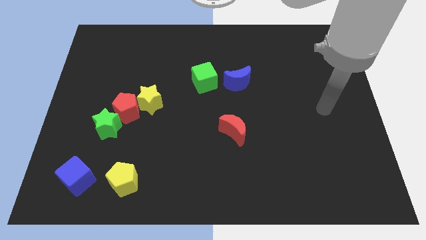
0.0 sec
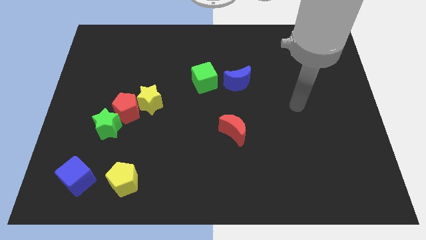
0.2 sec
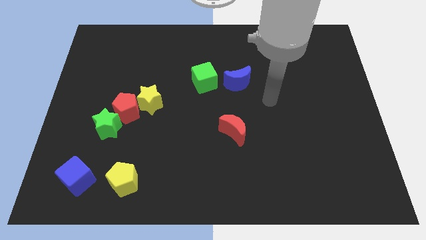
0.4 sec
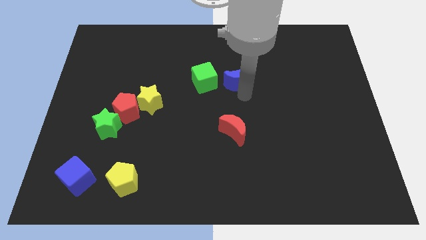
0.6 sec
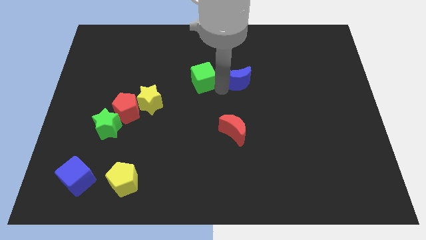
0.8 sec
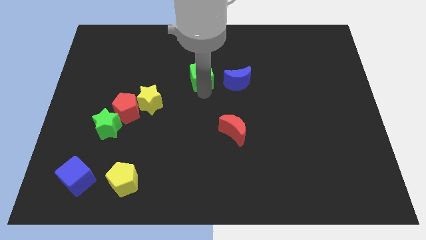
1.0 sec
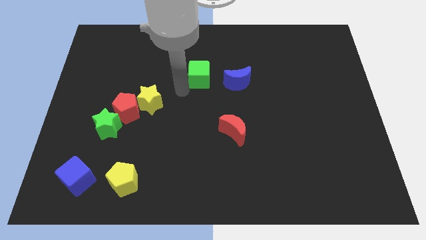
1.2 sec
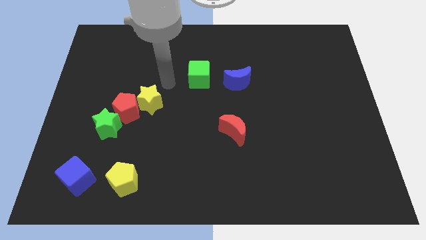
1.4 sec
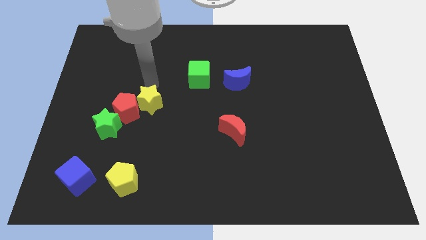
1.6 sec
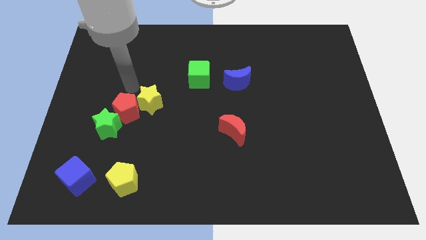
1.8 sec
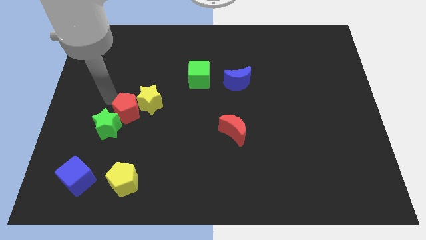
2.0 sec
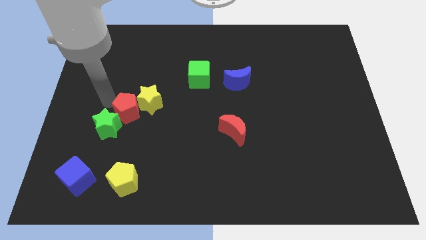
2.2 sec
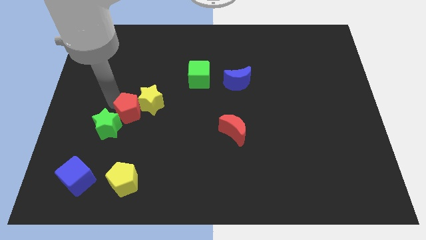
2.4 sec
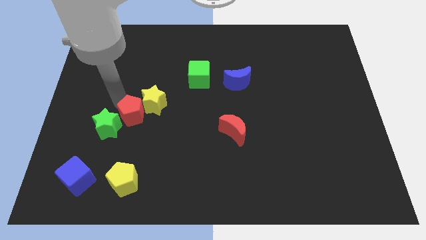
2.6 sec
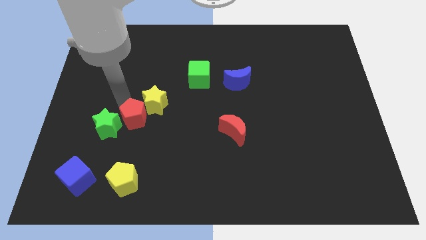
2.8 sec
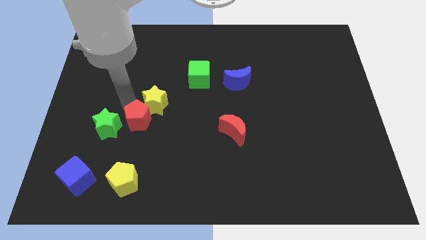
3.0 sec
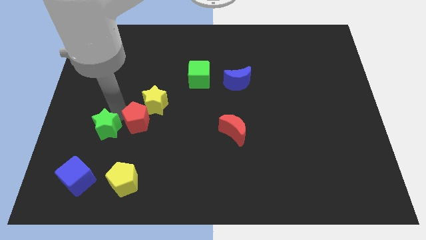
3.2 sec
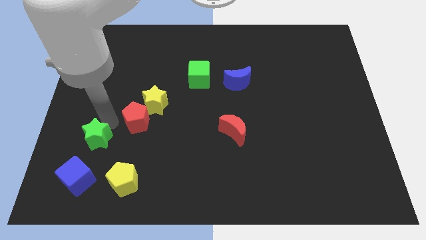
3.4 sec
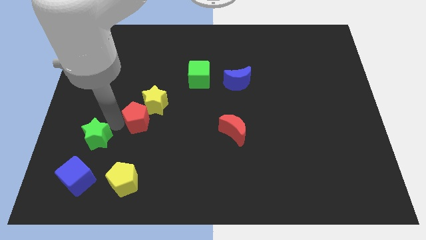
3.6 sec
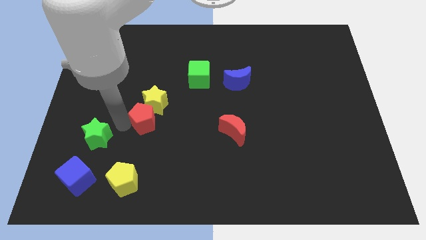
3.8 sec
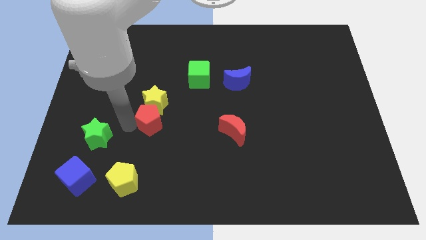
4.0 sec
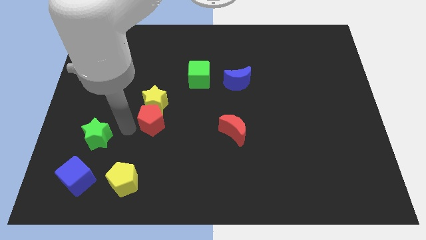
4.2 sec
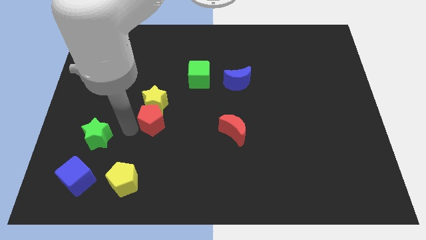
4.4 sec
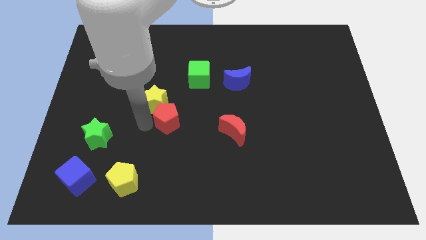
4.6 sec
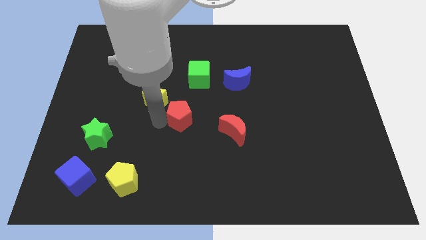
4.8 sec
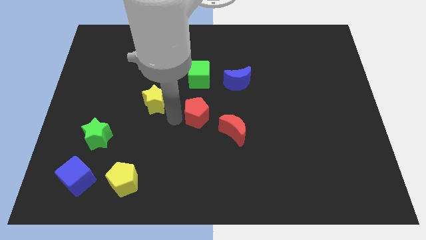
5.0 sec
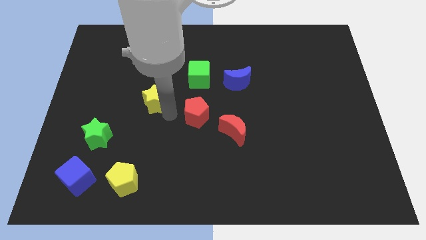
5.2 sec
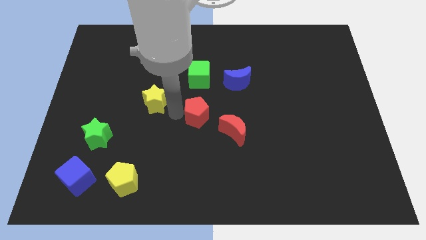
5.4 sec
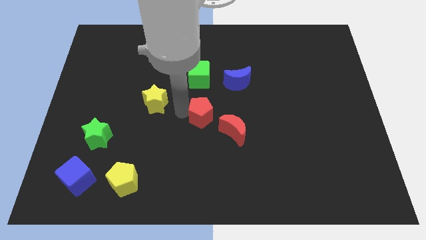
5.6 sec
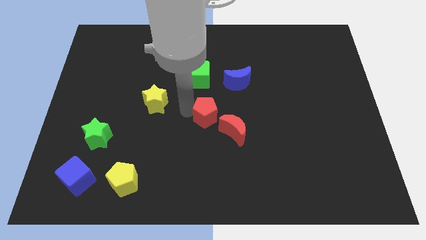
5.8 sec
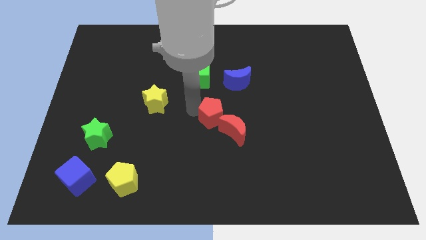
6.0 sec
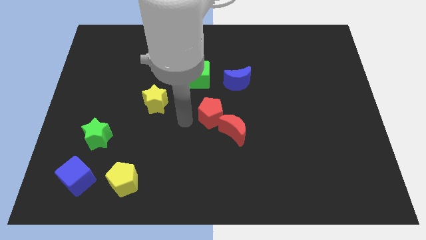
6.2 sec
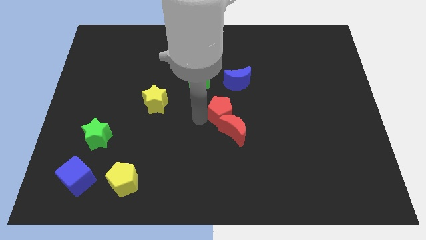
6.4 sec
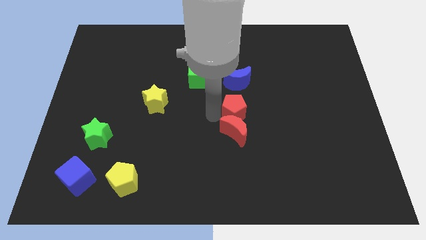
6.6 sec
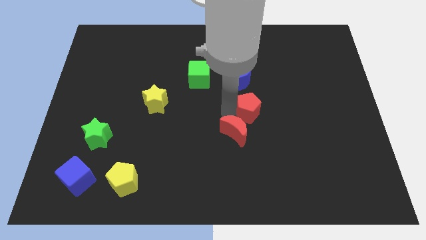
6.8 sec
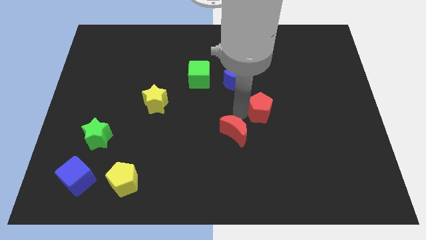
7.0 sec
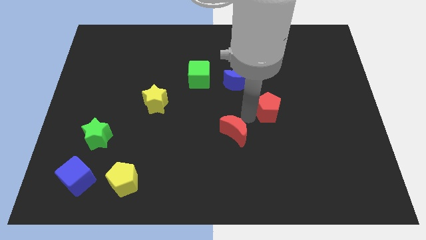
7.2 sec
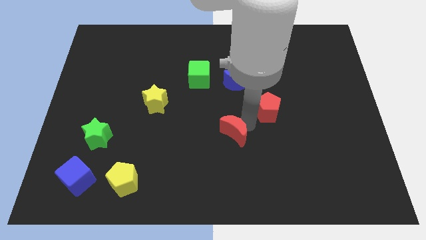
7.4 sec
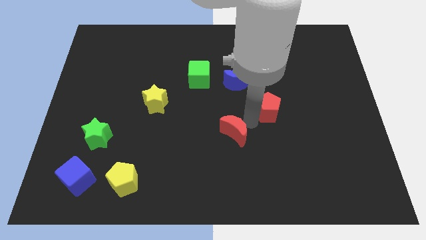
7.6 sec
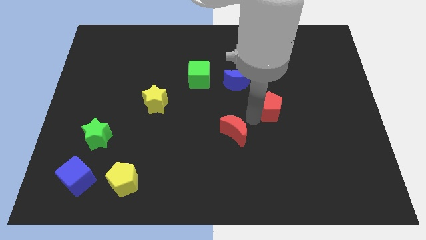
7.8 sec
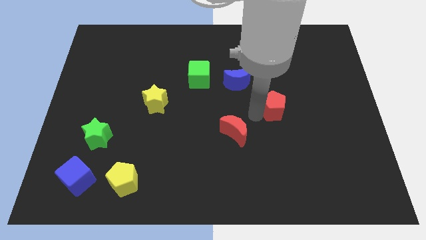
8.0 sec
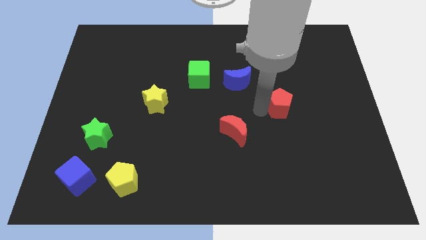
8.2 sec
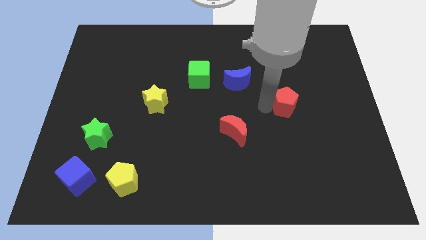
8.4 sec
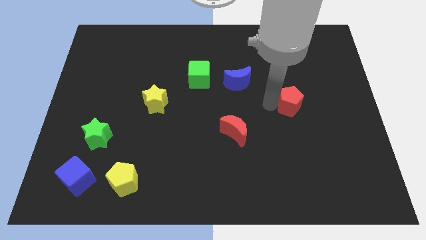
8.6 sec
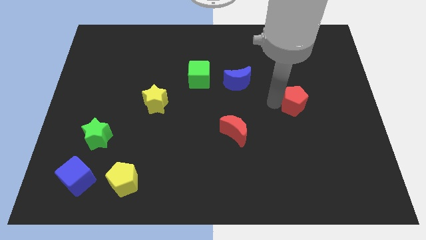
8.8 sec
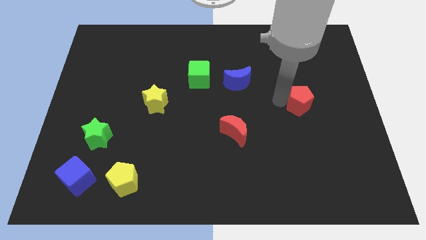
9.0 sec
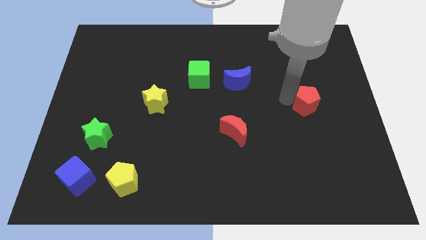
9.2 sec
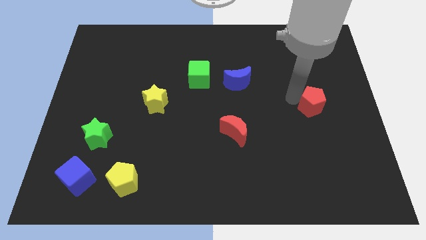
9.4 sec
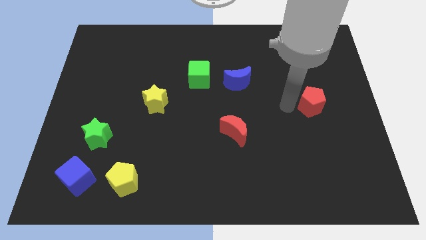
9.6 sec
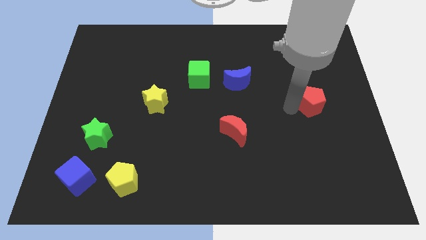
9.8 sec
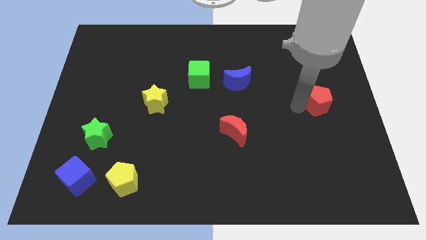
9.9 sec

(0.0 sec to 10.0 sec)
push the red pentagon to the center right
